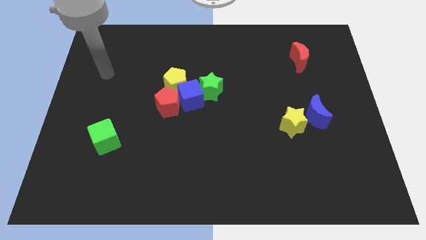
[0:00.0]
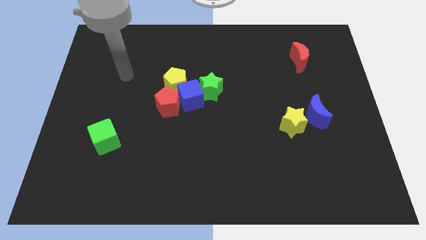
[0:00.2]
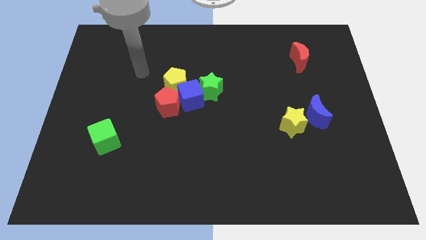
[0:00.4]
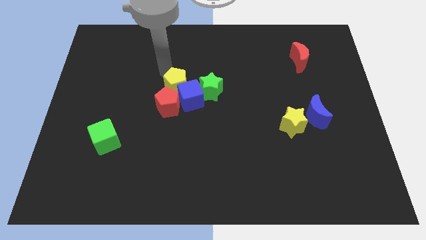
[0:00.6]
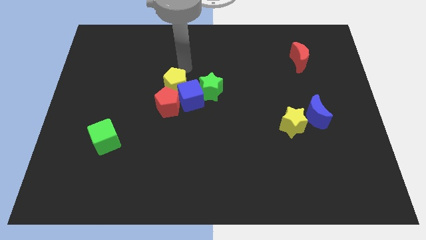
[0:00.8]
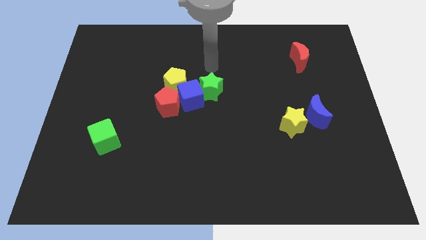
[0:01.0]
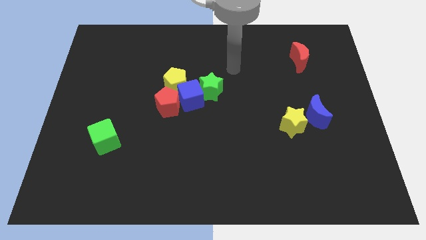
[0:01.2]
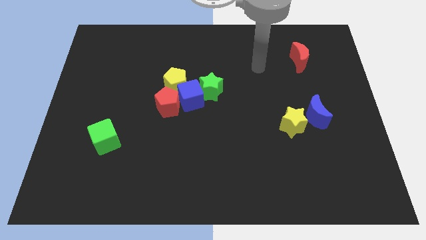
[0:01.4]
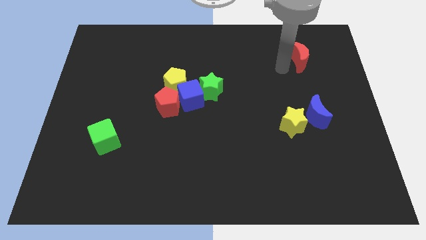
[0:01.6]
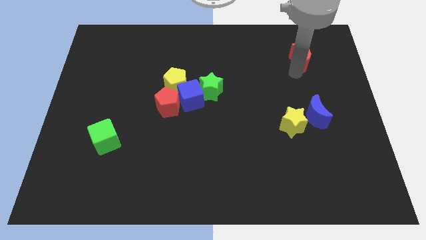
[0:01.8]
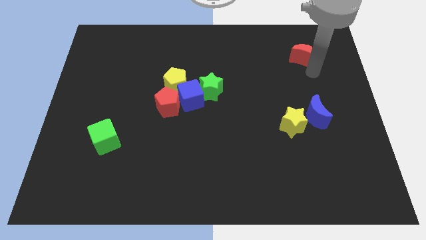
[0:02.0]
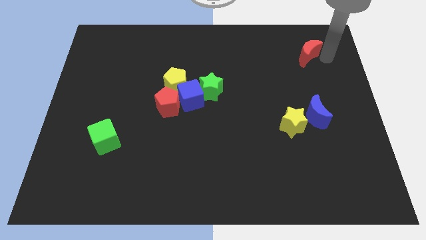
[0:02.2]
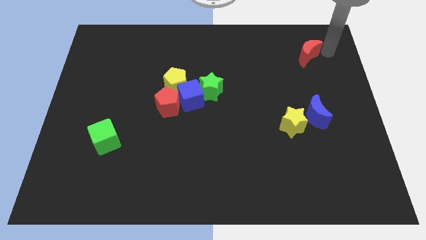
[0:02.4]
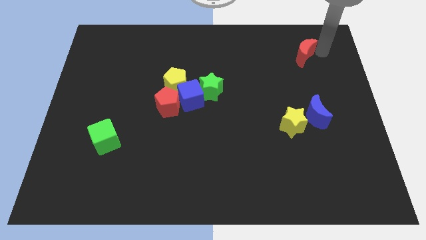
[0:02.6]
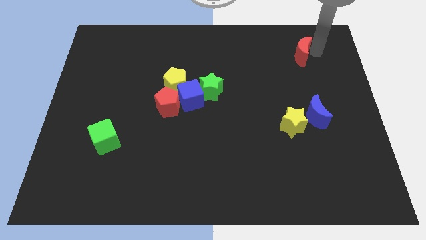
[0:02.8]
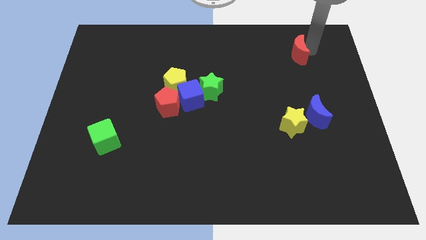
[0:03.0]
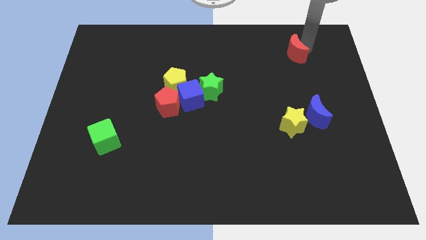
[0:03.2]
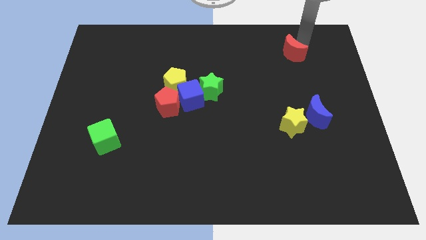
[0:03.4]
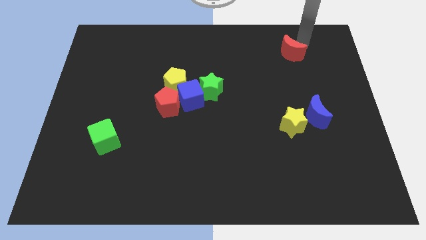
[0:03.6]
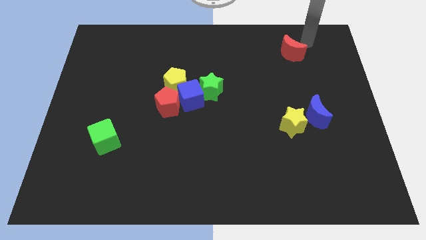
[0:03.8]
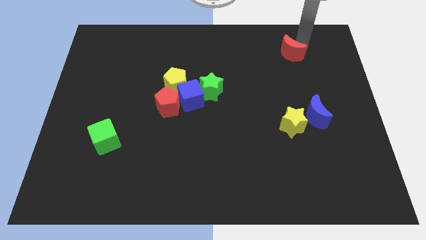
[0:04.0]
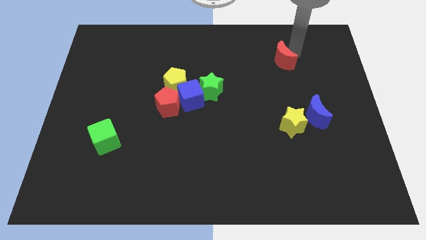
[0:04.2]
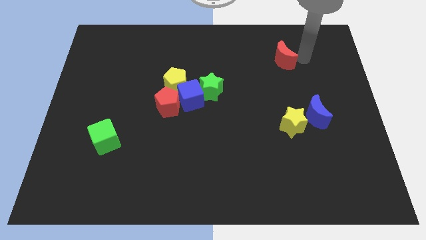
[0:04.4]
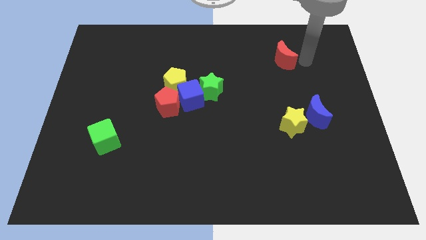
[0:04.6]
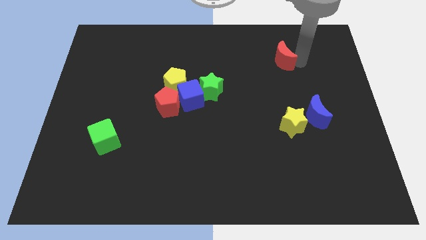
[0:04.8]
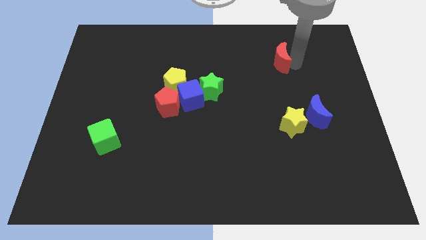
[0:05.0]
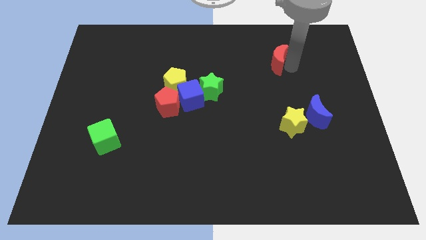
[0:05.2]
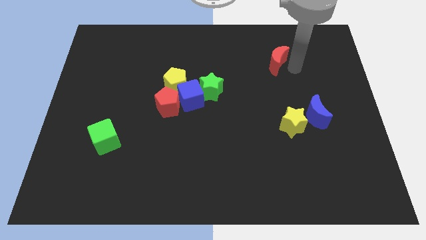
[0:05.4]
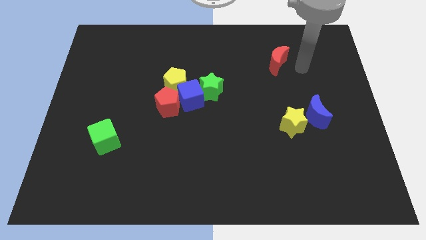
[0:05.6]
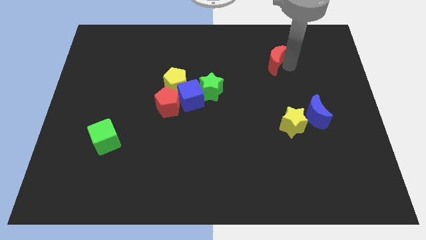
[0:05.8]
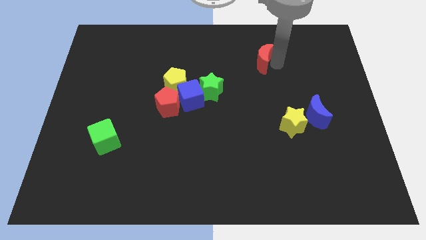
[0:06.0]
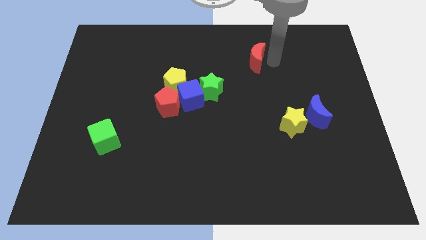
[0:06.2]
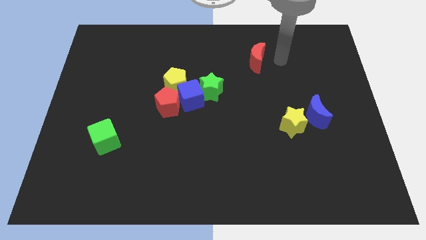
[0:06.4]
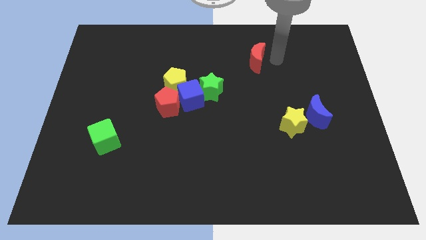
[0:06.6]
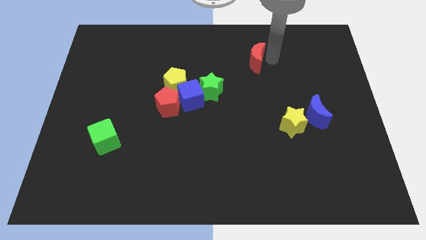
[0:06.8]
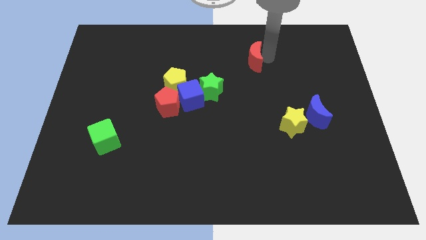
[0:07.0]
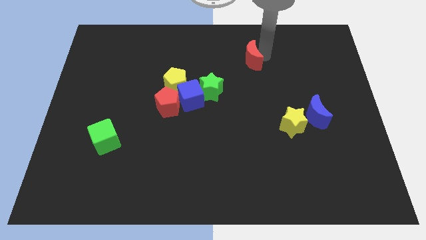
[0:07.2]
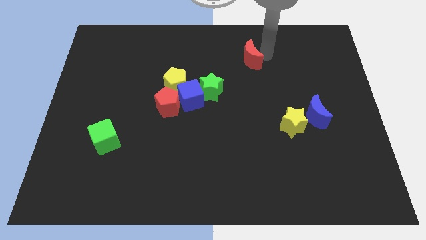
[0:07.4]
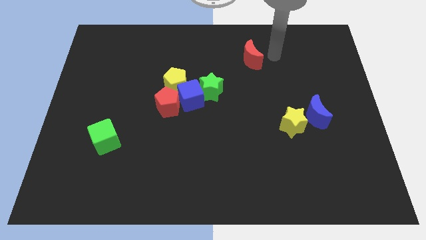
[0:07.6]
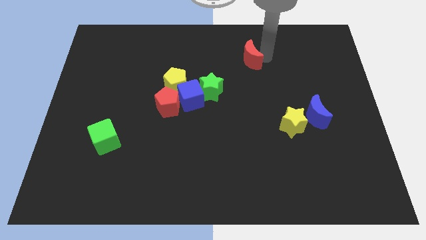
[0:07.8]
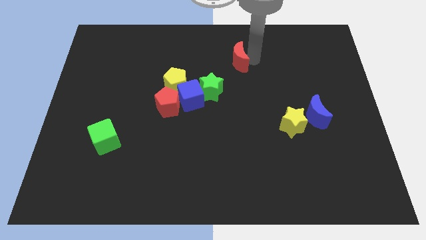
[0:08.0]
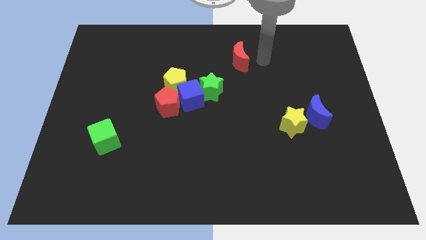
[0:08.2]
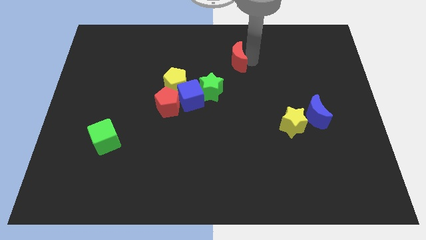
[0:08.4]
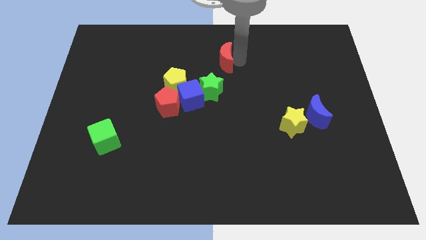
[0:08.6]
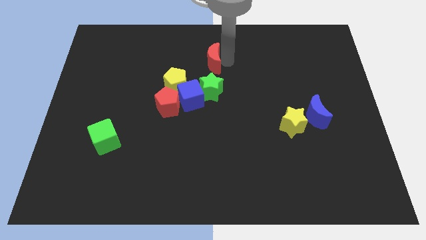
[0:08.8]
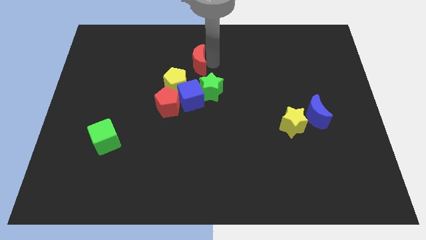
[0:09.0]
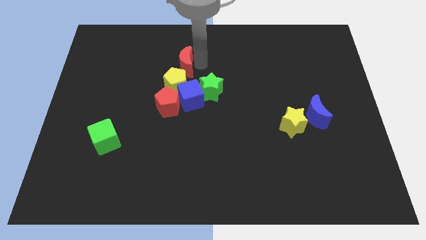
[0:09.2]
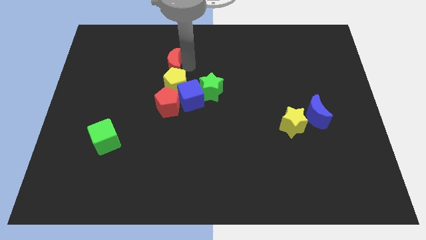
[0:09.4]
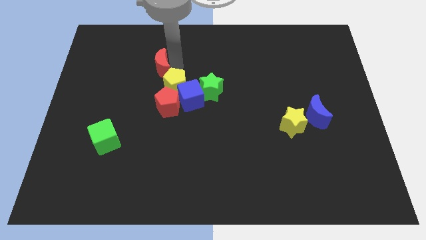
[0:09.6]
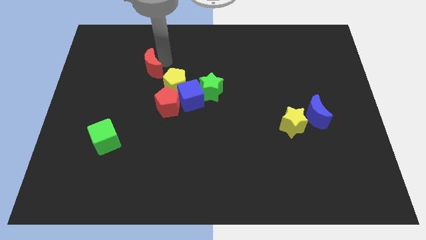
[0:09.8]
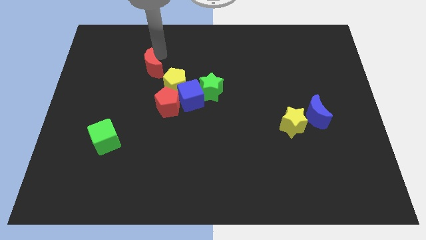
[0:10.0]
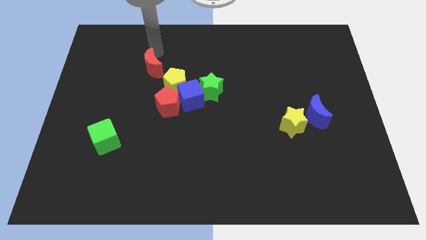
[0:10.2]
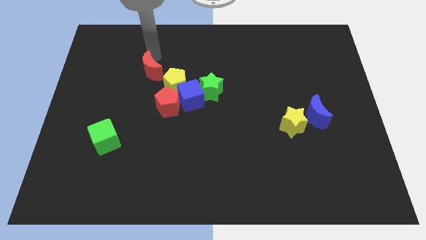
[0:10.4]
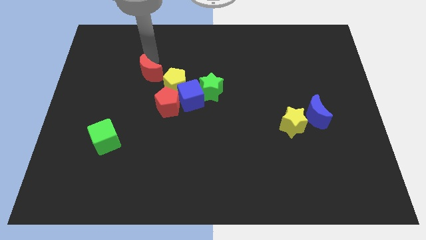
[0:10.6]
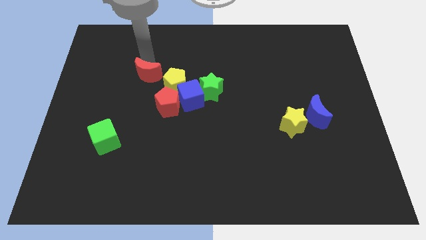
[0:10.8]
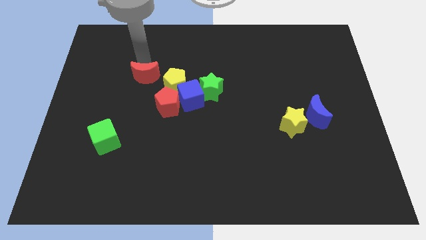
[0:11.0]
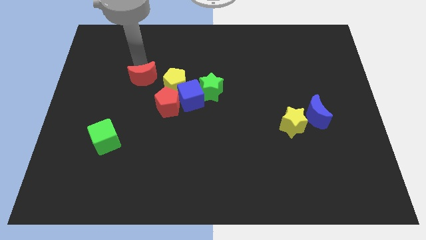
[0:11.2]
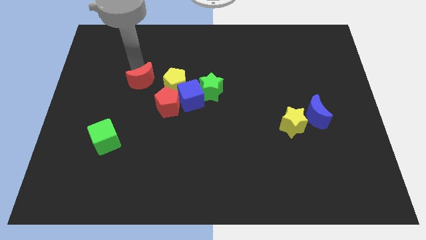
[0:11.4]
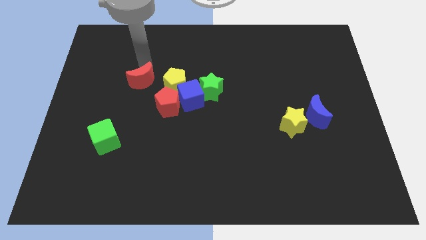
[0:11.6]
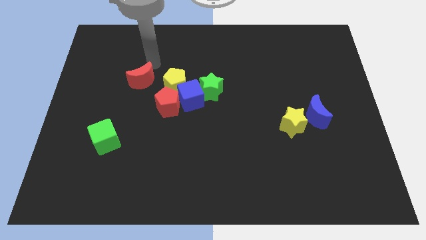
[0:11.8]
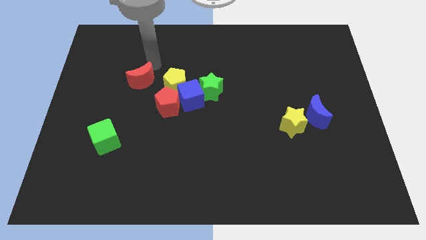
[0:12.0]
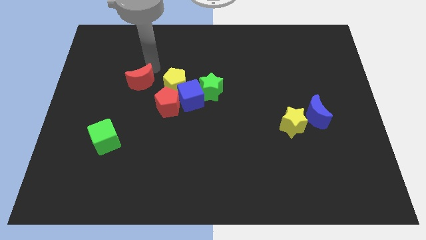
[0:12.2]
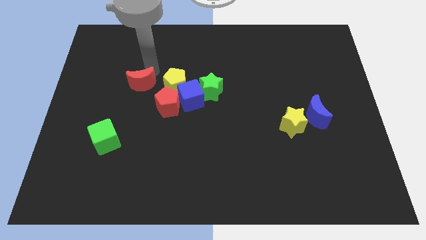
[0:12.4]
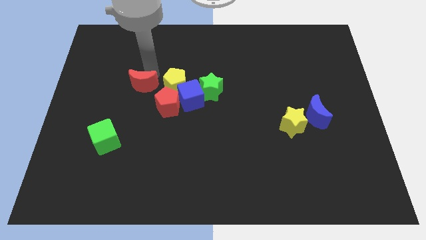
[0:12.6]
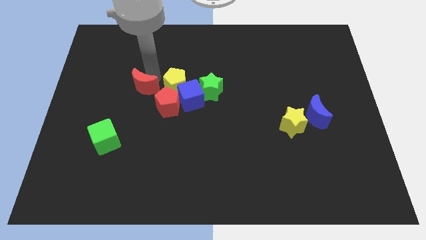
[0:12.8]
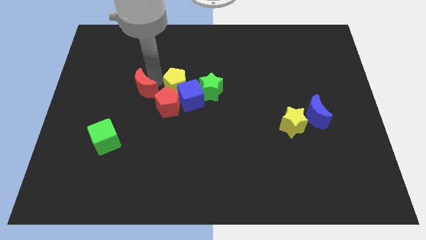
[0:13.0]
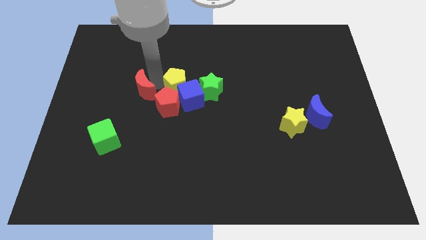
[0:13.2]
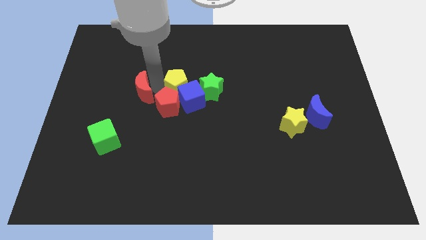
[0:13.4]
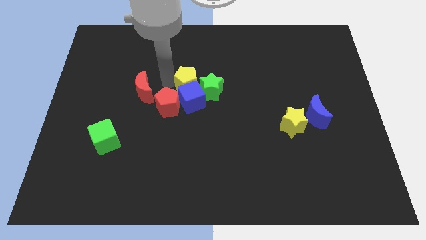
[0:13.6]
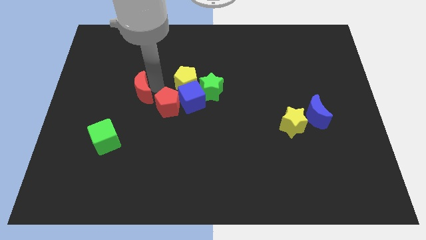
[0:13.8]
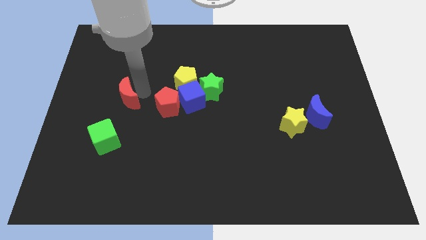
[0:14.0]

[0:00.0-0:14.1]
move the red moon to the top of the green cube

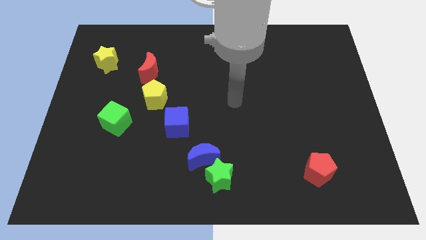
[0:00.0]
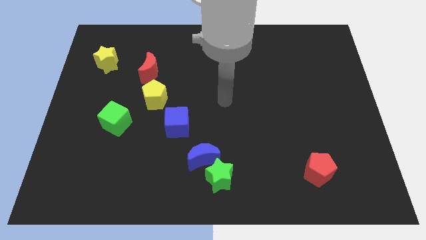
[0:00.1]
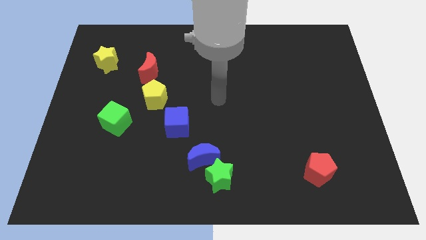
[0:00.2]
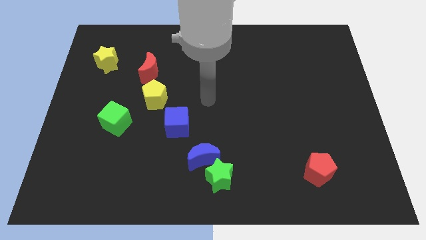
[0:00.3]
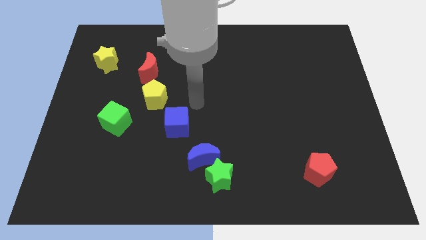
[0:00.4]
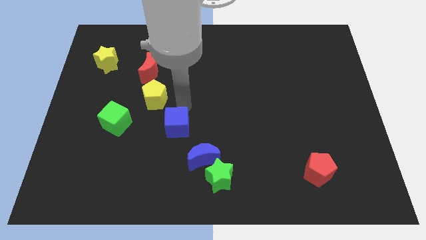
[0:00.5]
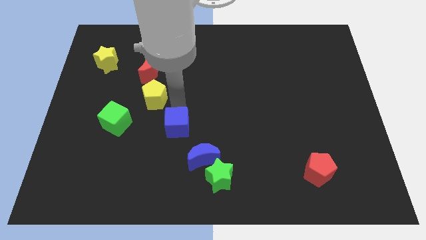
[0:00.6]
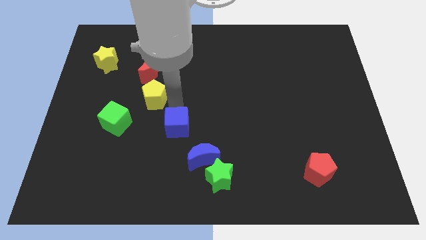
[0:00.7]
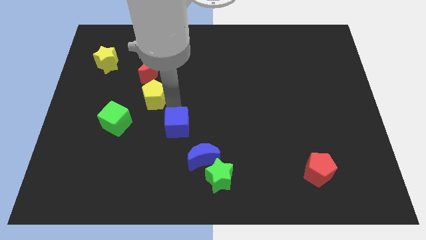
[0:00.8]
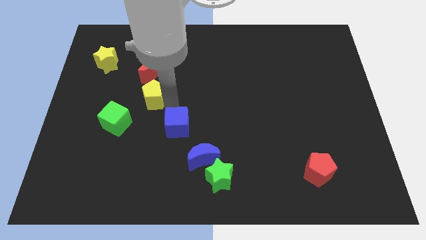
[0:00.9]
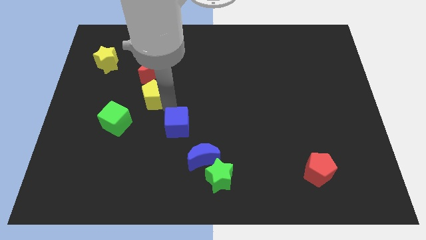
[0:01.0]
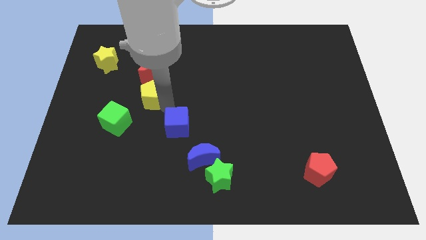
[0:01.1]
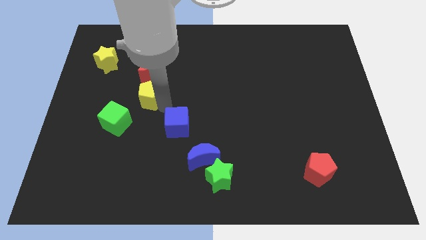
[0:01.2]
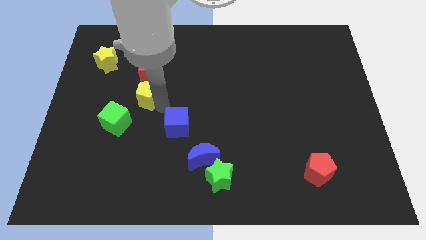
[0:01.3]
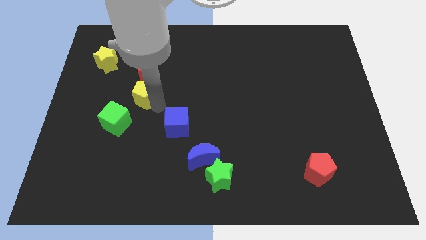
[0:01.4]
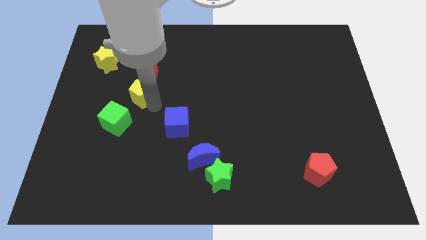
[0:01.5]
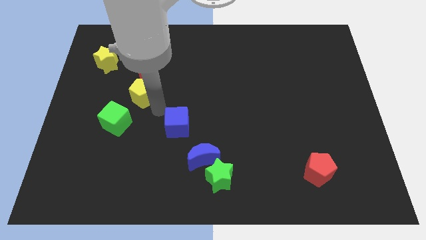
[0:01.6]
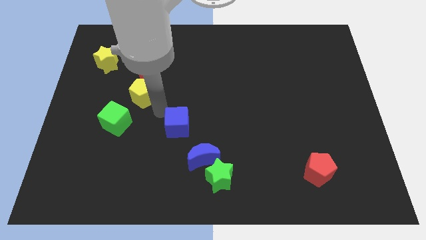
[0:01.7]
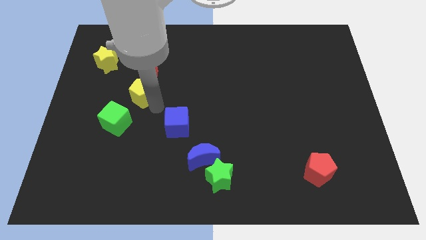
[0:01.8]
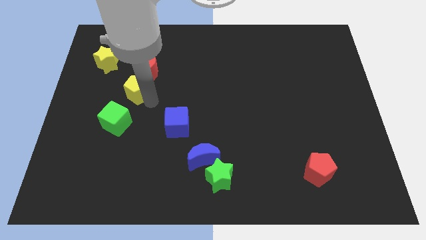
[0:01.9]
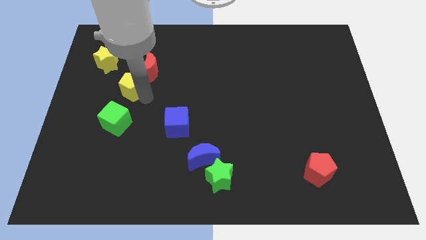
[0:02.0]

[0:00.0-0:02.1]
put the yellow pentagon diagonally down and to the right of the yellow star
